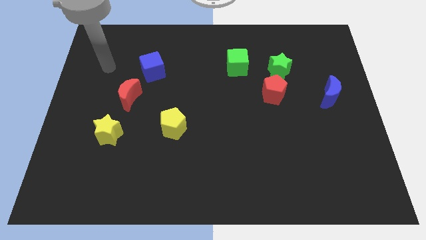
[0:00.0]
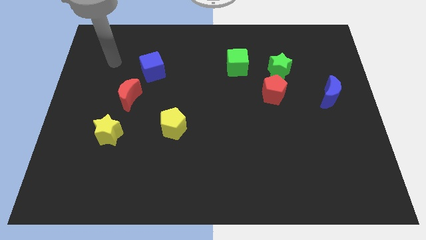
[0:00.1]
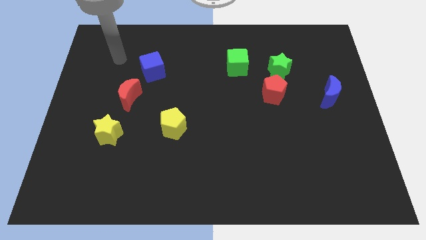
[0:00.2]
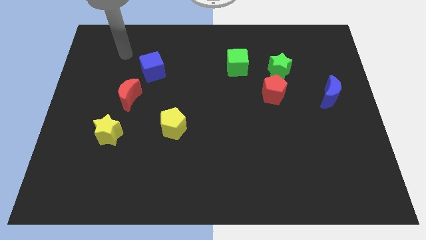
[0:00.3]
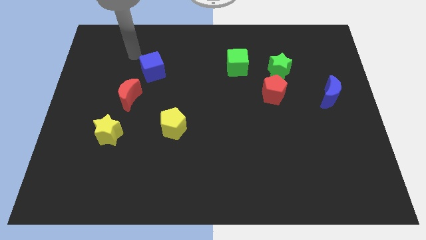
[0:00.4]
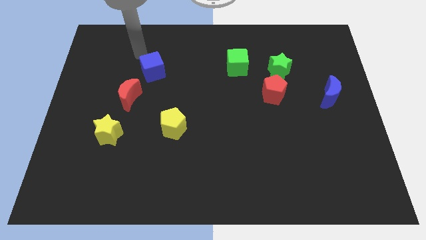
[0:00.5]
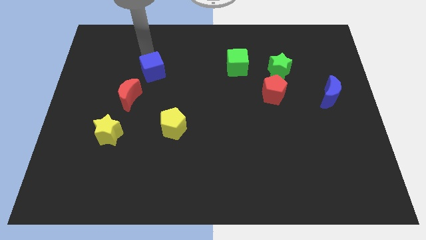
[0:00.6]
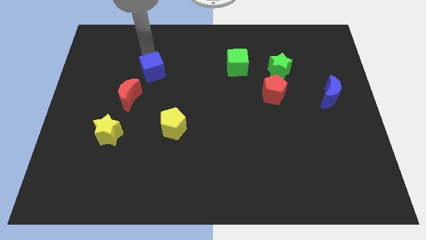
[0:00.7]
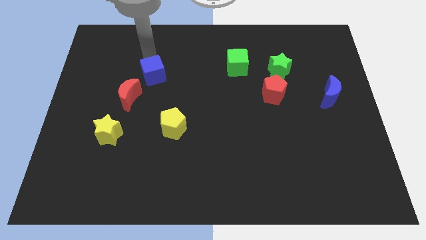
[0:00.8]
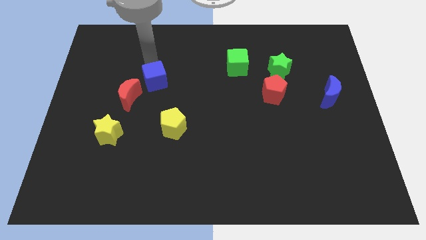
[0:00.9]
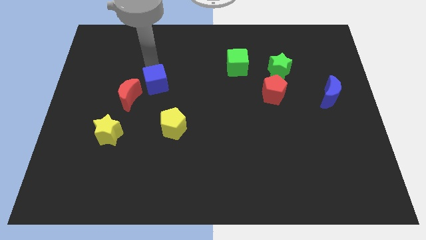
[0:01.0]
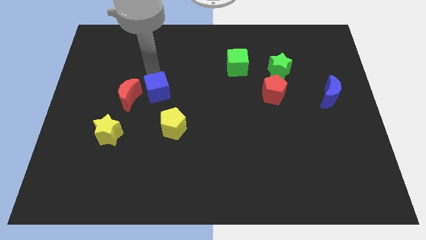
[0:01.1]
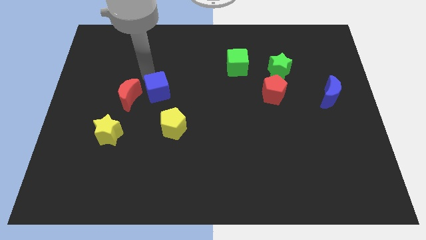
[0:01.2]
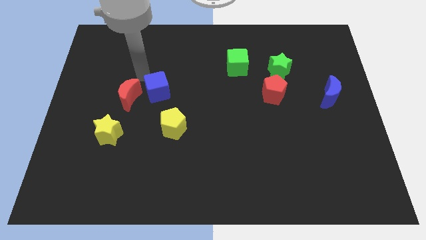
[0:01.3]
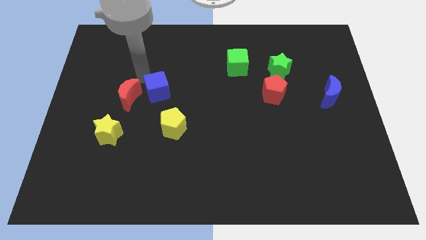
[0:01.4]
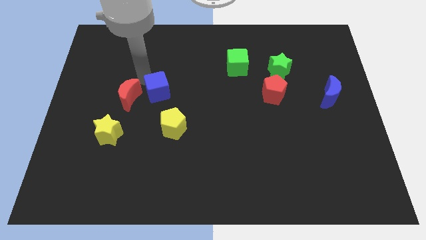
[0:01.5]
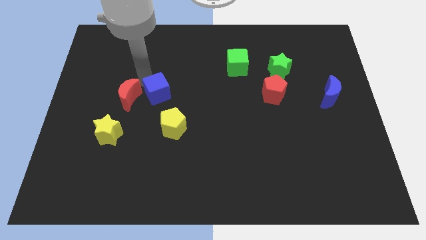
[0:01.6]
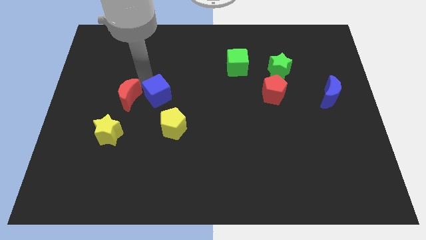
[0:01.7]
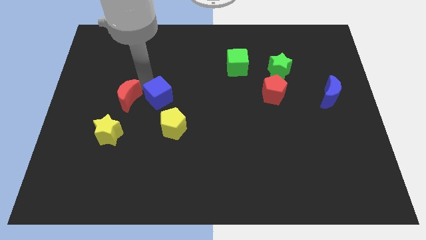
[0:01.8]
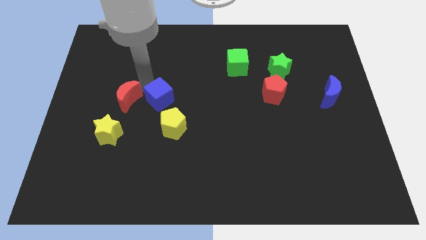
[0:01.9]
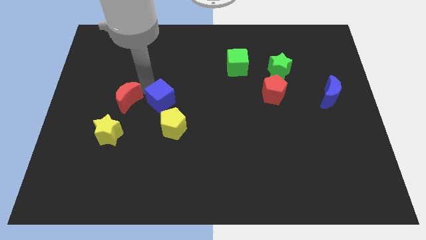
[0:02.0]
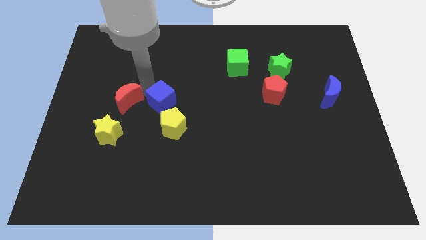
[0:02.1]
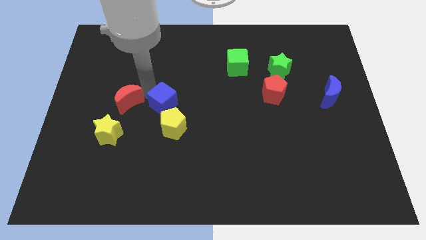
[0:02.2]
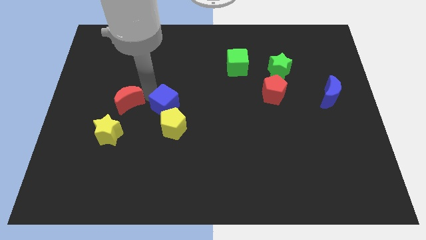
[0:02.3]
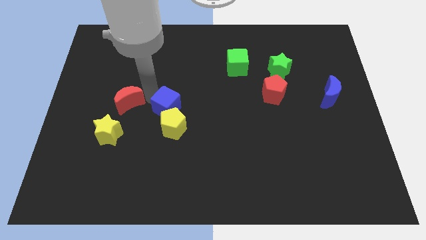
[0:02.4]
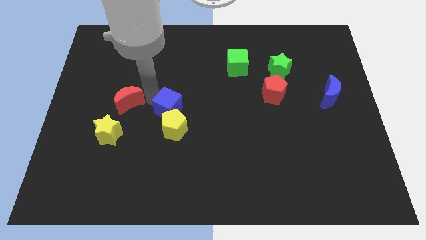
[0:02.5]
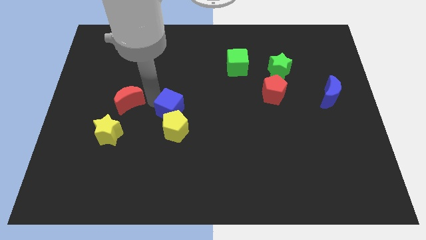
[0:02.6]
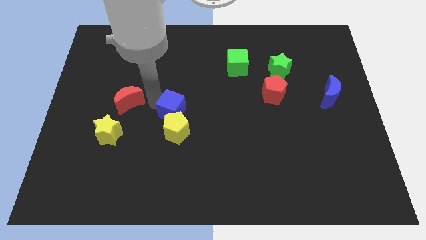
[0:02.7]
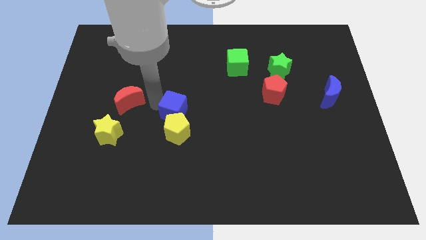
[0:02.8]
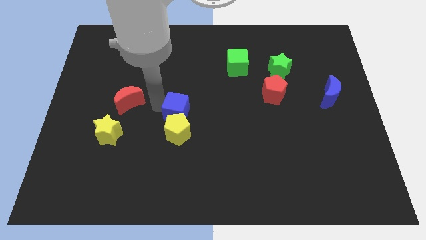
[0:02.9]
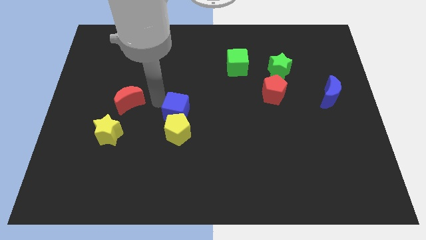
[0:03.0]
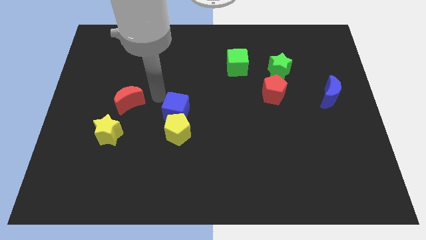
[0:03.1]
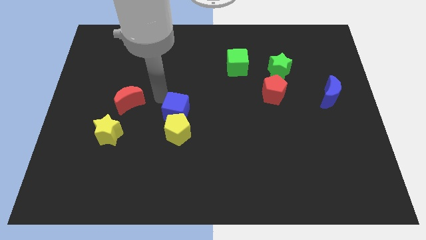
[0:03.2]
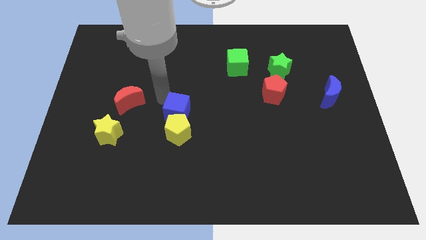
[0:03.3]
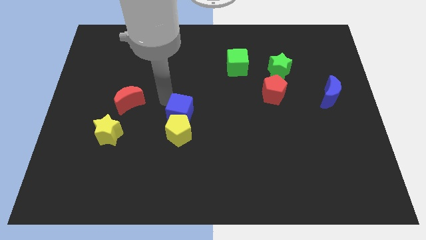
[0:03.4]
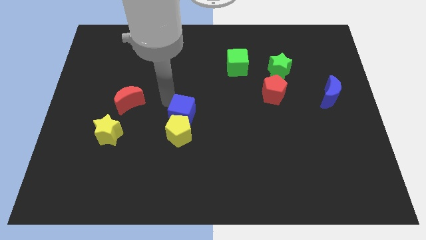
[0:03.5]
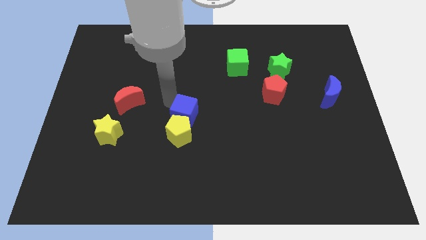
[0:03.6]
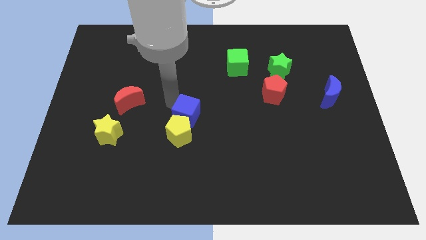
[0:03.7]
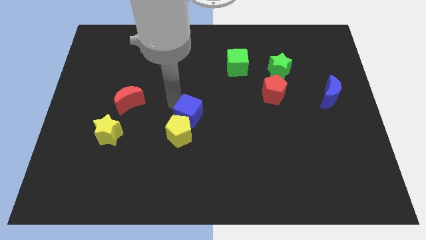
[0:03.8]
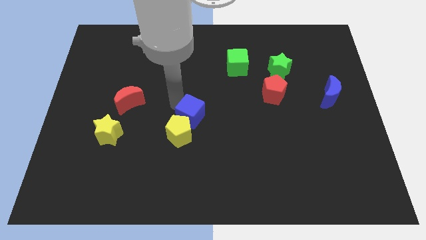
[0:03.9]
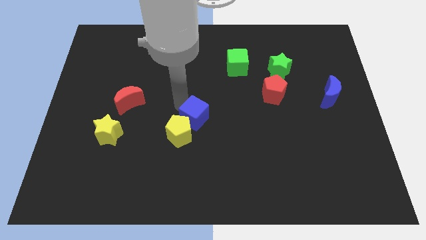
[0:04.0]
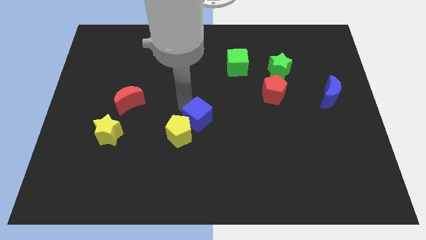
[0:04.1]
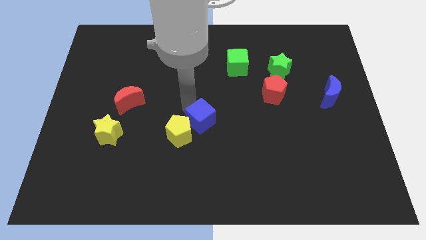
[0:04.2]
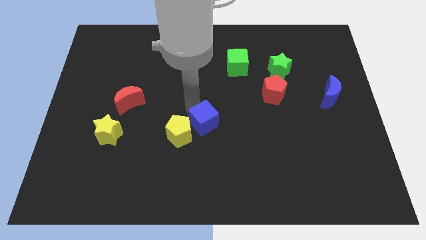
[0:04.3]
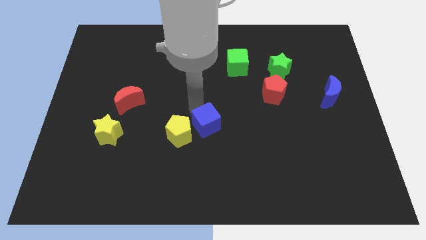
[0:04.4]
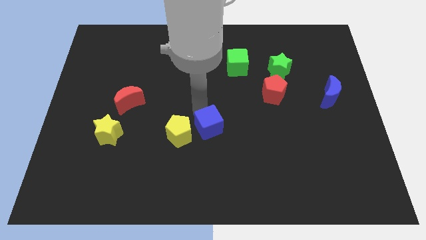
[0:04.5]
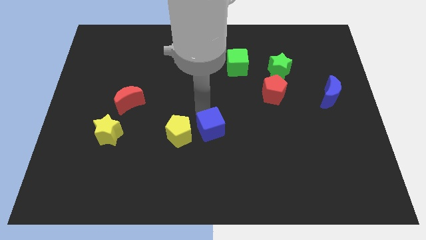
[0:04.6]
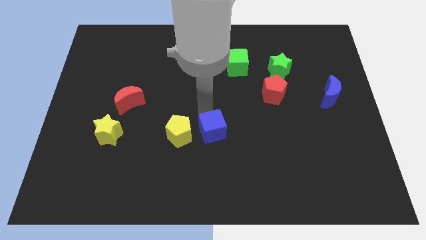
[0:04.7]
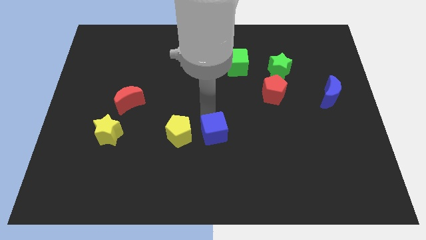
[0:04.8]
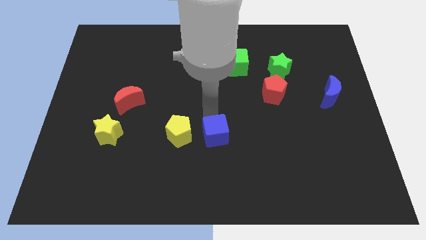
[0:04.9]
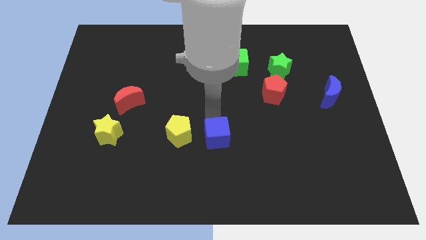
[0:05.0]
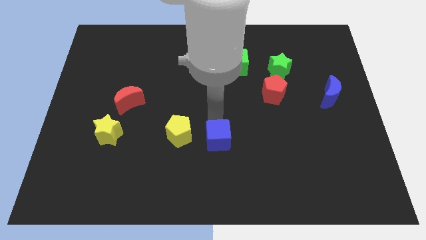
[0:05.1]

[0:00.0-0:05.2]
move the blue cube to the bottom right of the yellow pentagon

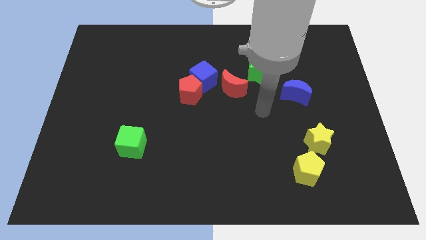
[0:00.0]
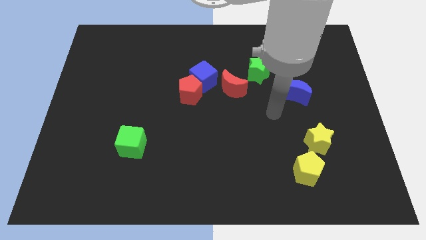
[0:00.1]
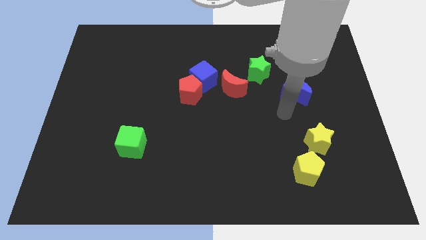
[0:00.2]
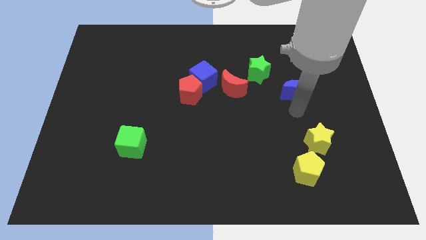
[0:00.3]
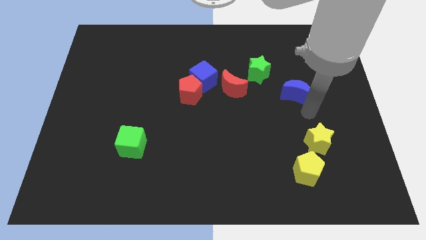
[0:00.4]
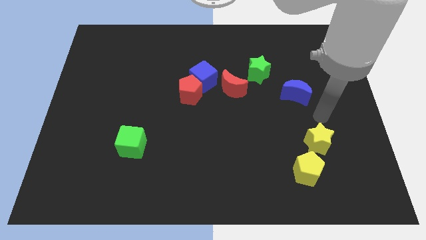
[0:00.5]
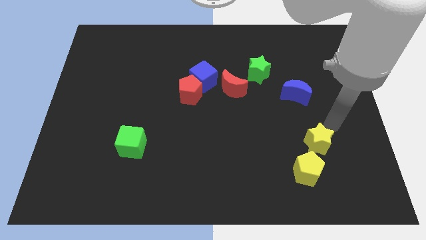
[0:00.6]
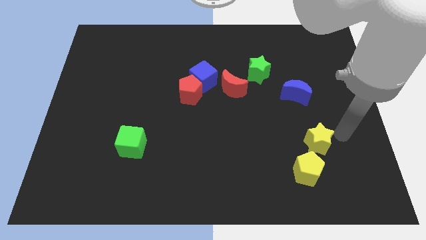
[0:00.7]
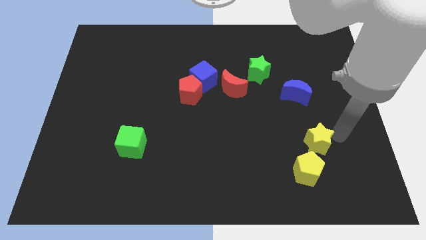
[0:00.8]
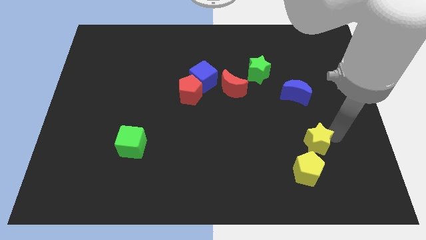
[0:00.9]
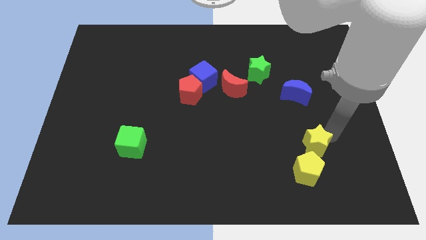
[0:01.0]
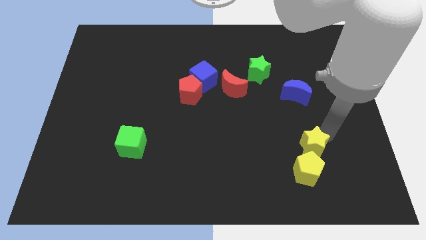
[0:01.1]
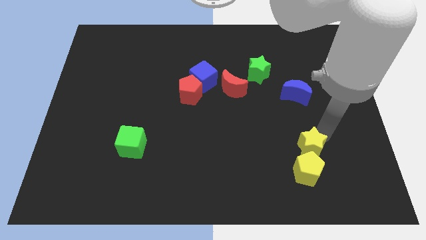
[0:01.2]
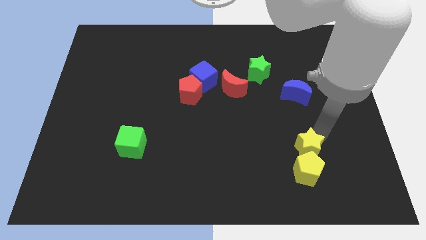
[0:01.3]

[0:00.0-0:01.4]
slide the yellow star to the top left of the yellow pentagon
